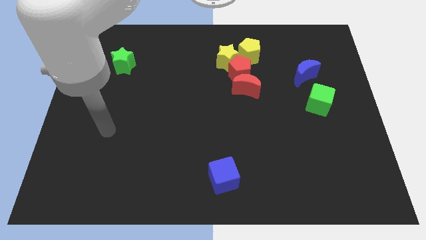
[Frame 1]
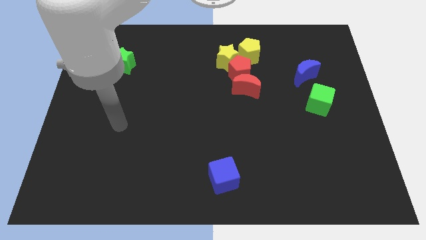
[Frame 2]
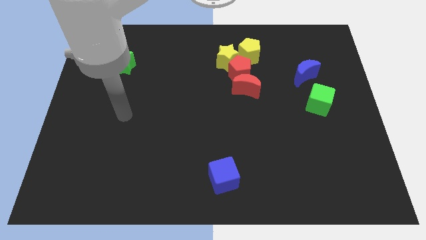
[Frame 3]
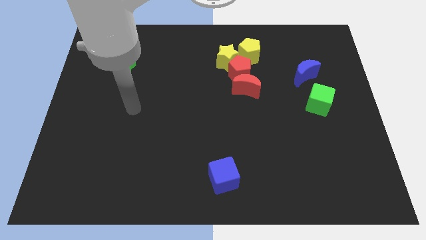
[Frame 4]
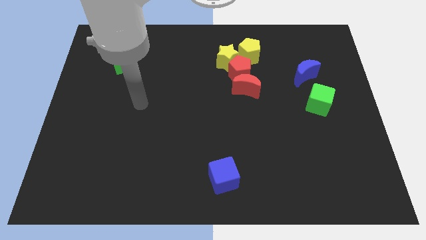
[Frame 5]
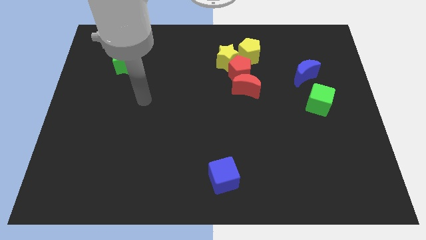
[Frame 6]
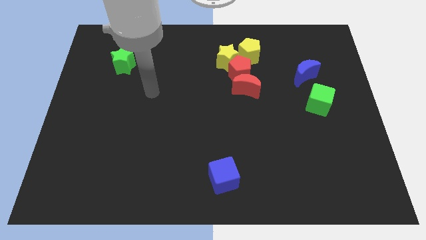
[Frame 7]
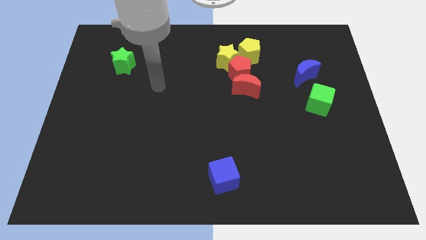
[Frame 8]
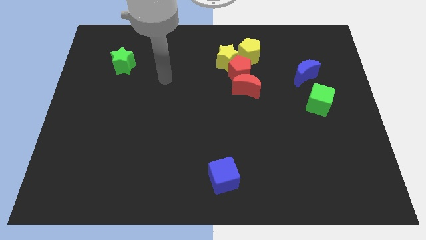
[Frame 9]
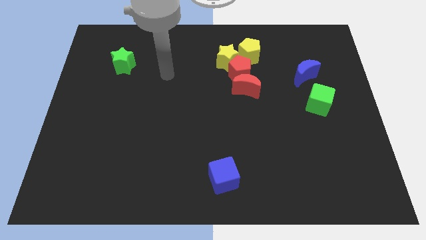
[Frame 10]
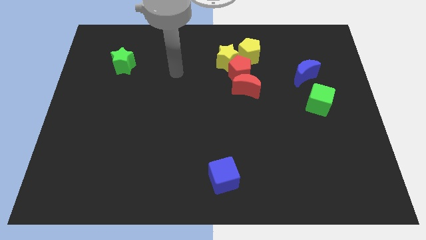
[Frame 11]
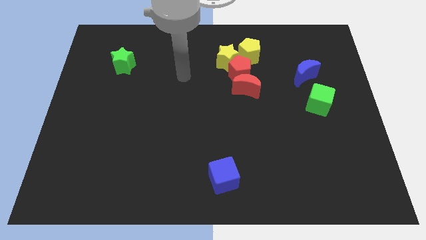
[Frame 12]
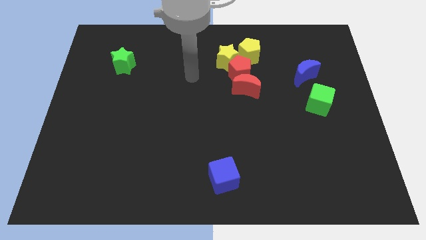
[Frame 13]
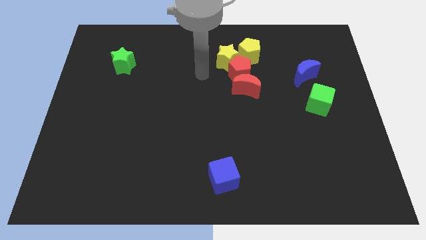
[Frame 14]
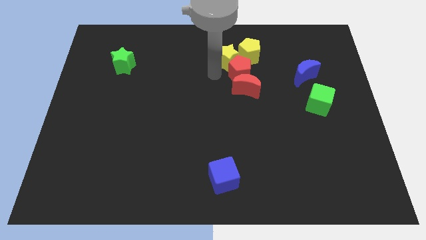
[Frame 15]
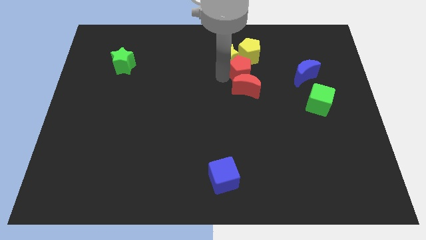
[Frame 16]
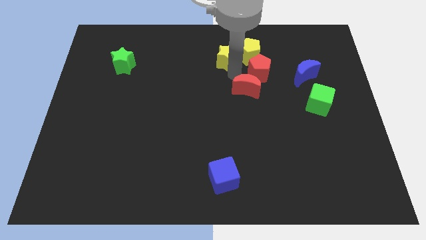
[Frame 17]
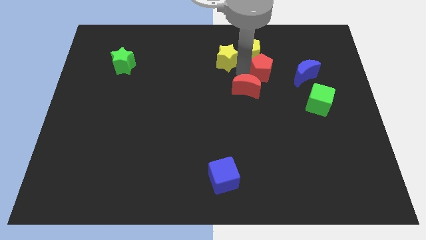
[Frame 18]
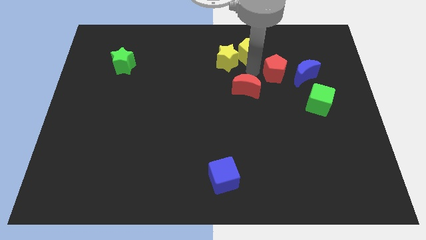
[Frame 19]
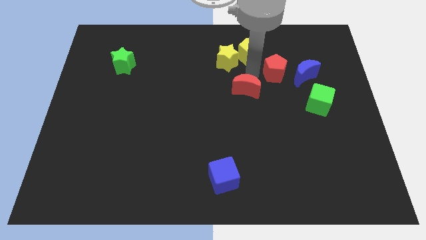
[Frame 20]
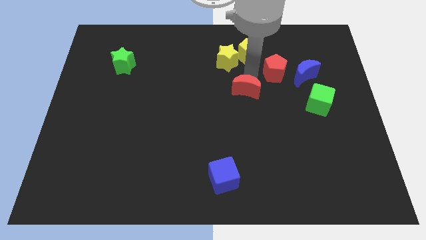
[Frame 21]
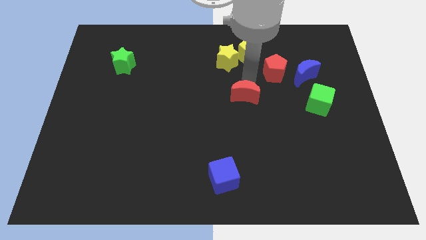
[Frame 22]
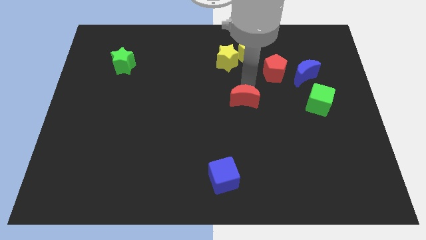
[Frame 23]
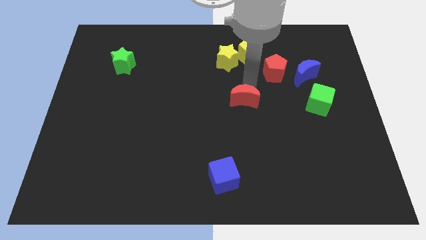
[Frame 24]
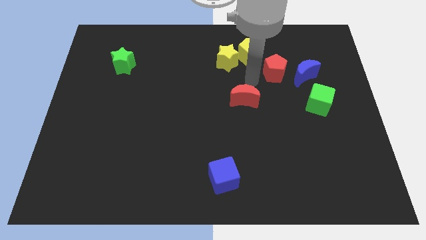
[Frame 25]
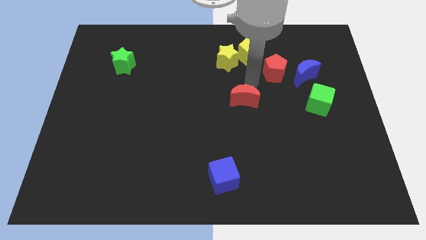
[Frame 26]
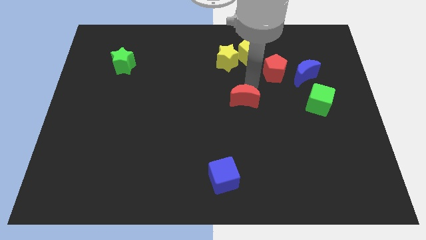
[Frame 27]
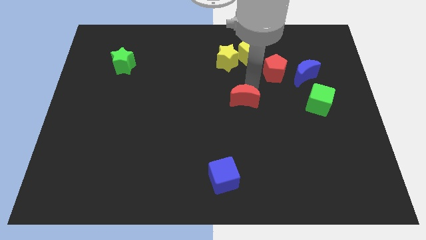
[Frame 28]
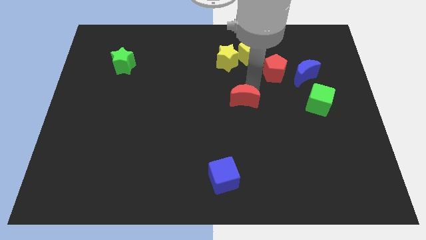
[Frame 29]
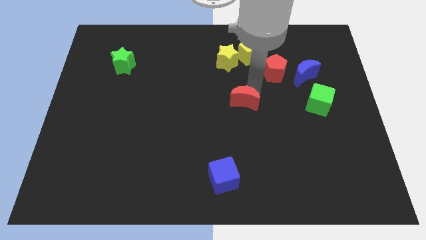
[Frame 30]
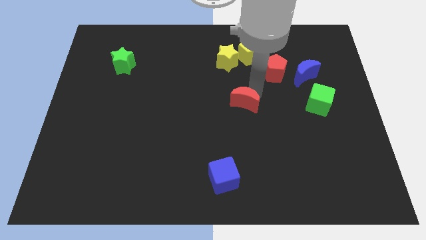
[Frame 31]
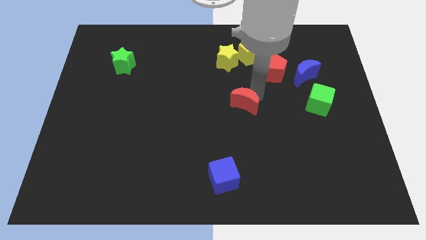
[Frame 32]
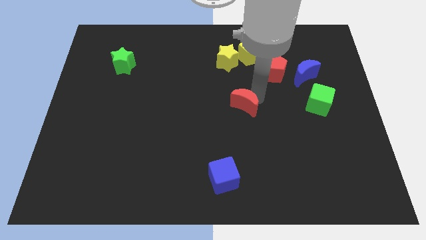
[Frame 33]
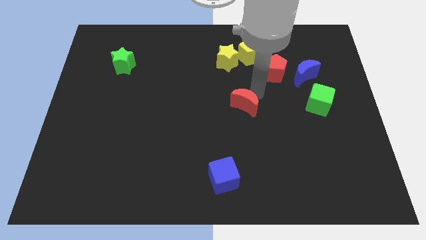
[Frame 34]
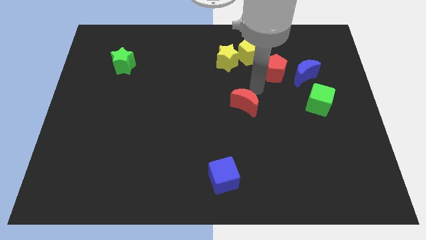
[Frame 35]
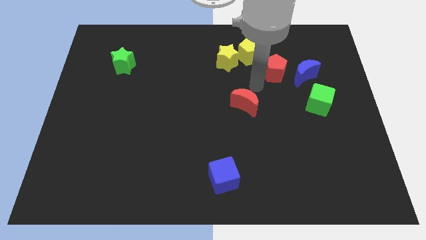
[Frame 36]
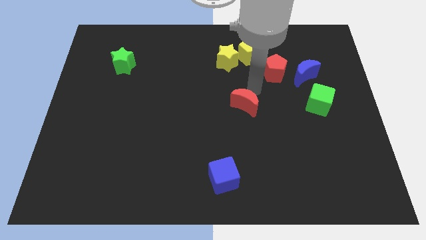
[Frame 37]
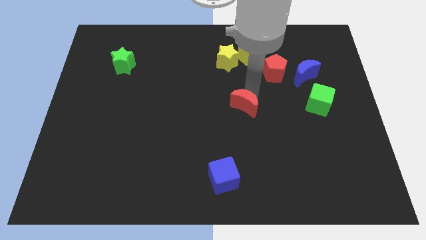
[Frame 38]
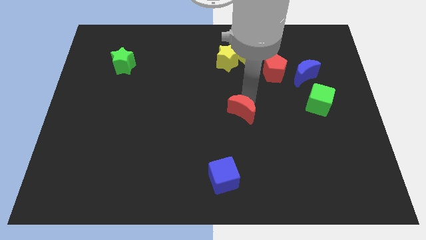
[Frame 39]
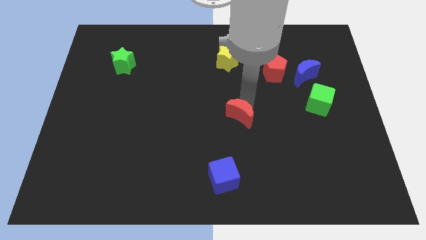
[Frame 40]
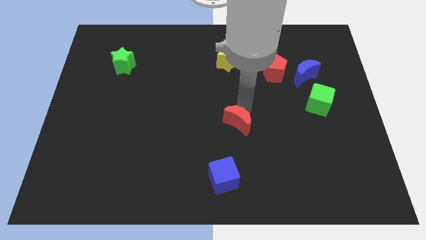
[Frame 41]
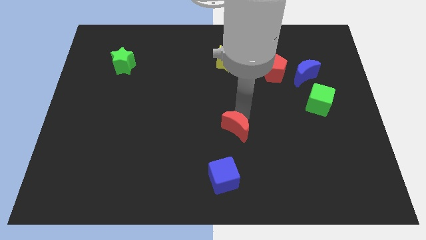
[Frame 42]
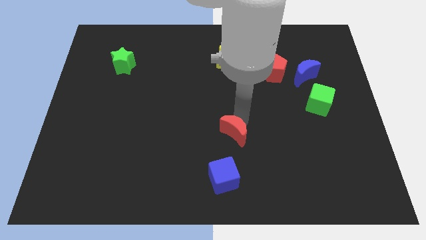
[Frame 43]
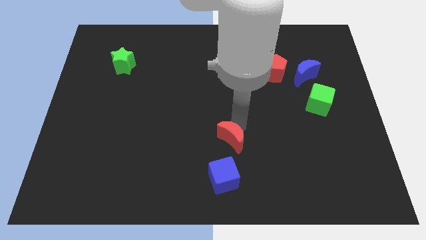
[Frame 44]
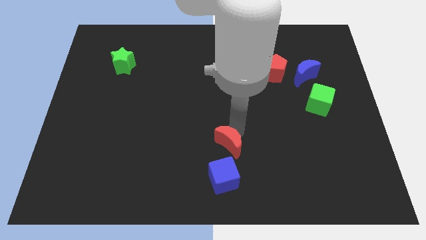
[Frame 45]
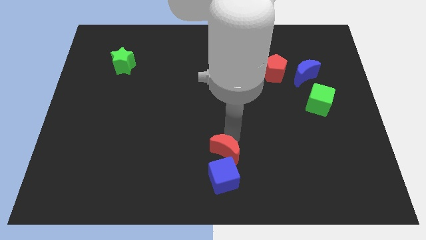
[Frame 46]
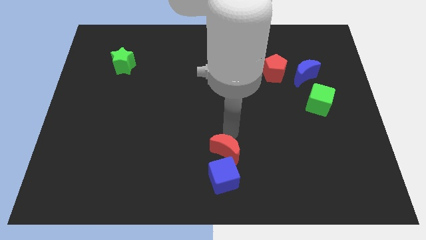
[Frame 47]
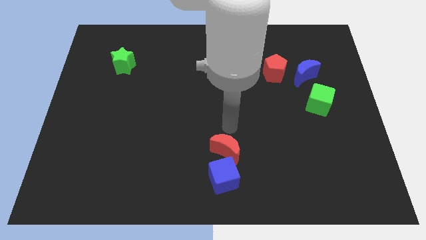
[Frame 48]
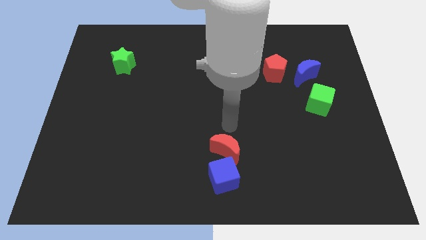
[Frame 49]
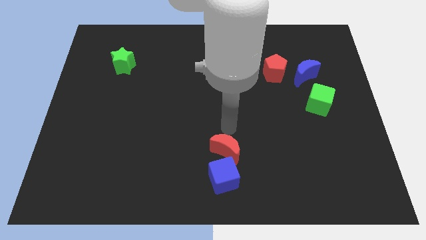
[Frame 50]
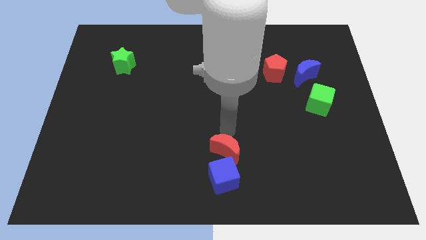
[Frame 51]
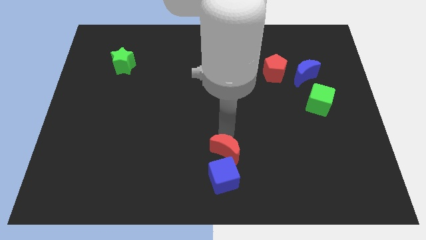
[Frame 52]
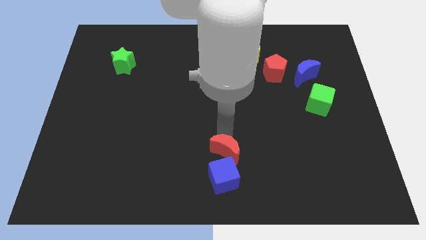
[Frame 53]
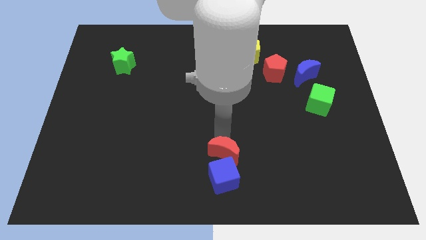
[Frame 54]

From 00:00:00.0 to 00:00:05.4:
slide the red moon close to the blue cube

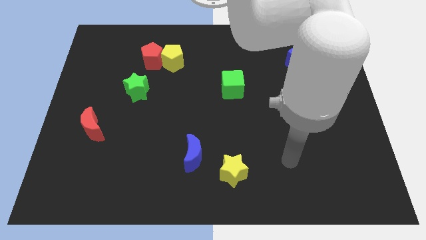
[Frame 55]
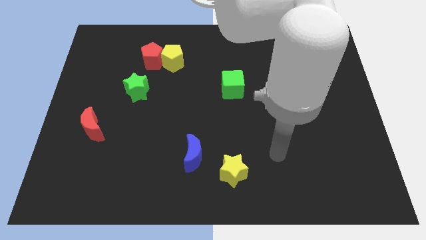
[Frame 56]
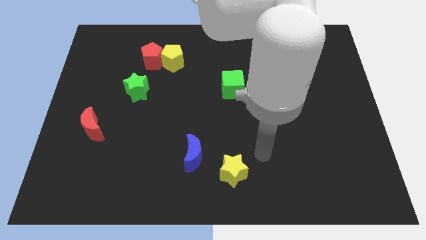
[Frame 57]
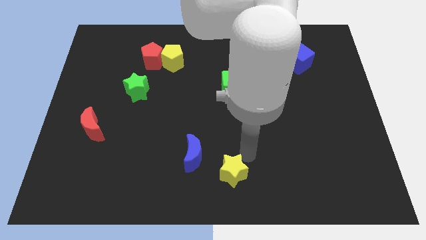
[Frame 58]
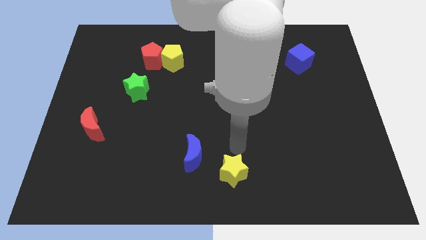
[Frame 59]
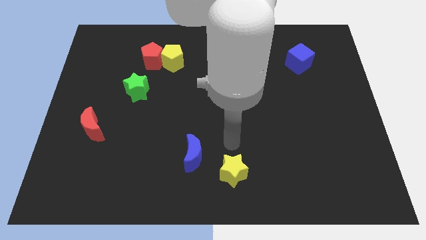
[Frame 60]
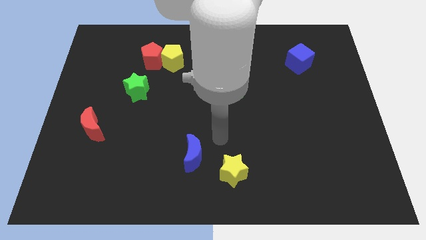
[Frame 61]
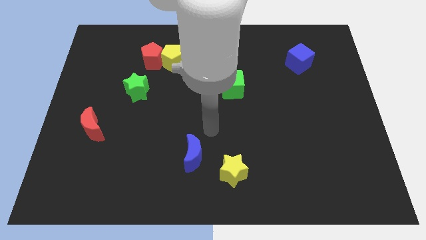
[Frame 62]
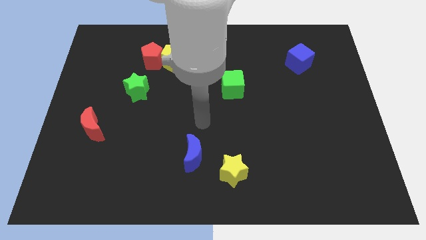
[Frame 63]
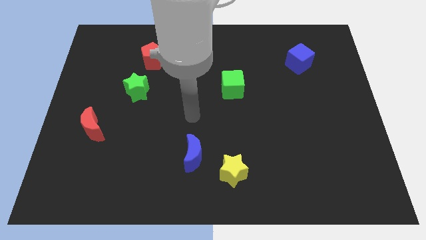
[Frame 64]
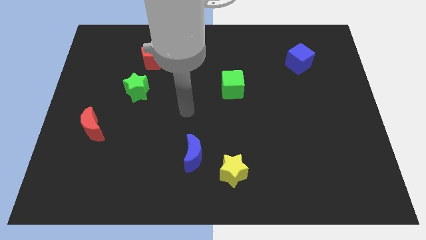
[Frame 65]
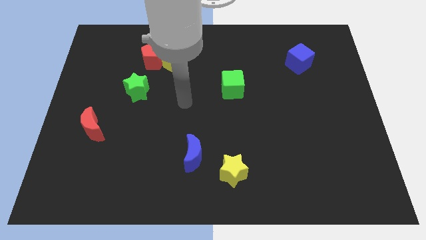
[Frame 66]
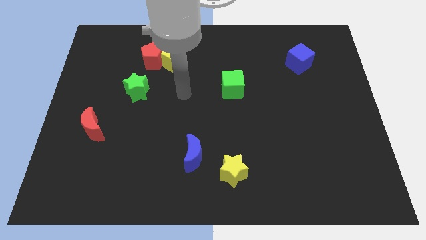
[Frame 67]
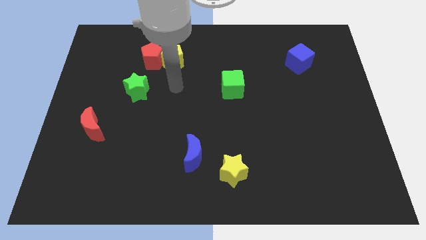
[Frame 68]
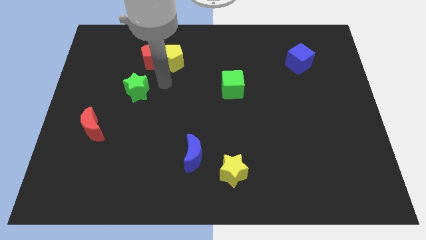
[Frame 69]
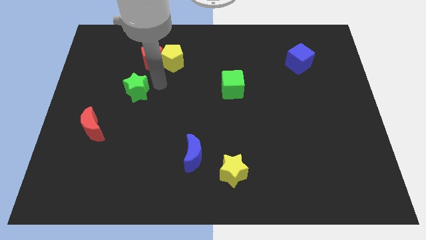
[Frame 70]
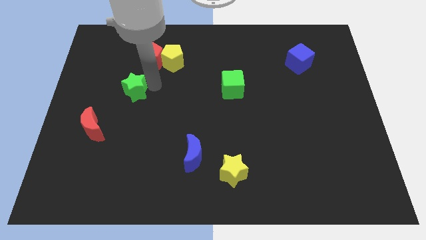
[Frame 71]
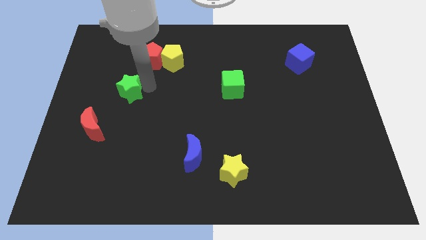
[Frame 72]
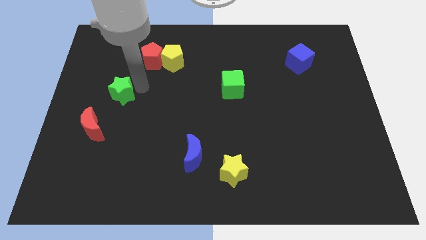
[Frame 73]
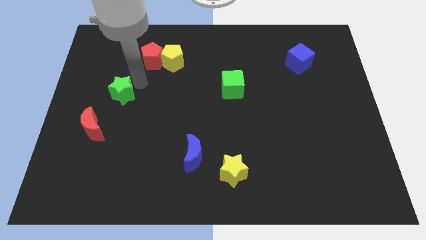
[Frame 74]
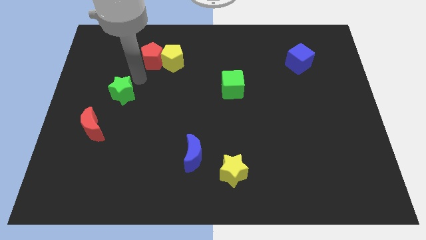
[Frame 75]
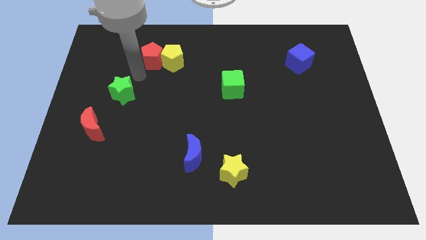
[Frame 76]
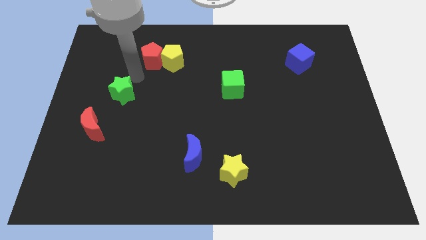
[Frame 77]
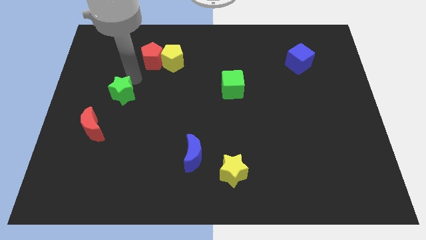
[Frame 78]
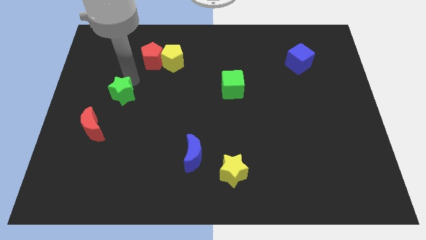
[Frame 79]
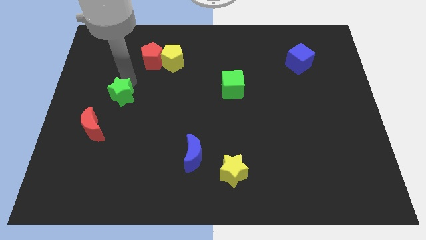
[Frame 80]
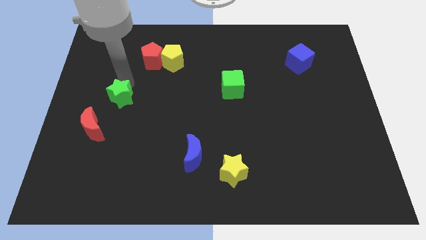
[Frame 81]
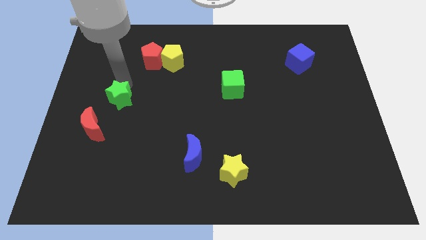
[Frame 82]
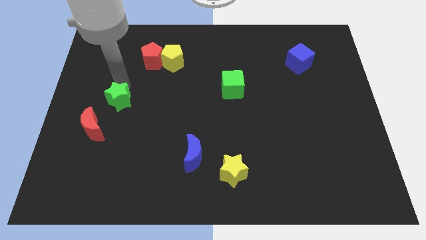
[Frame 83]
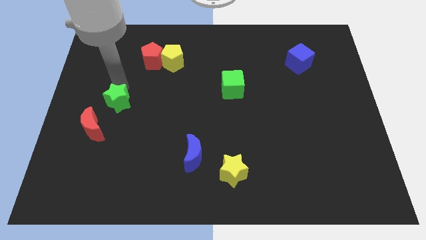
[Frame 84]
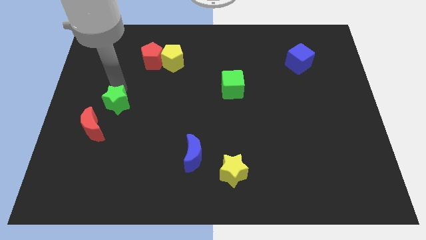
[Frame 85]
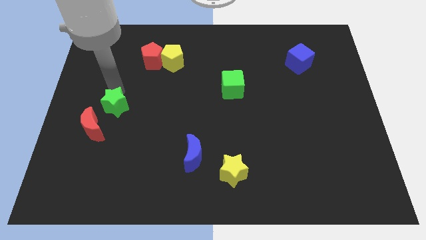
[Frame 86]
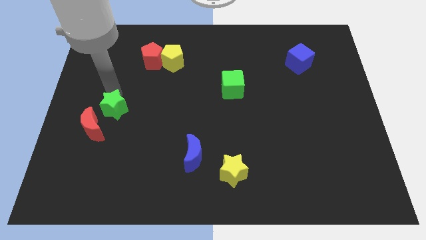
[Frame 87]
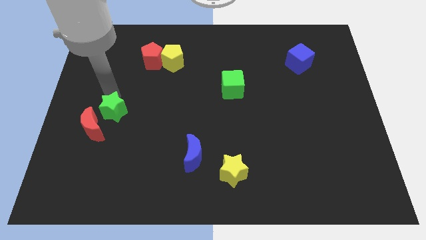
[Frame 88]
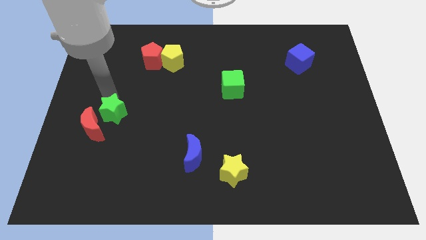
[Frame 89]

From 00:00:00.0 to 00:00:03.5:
move the green star close to the red moon
